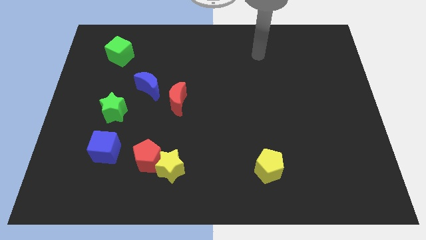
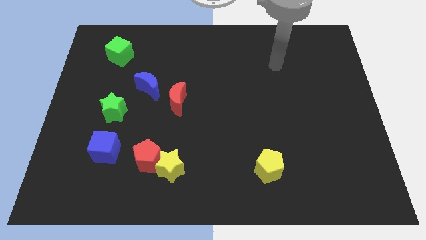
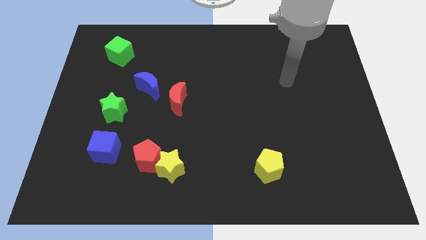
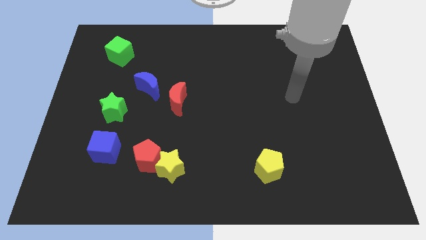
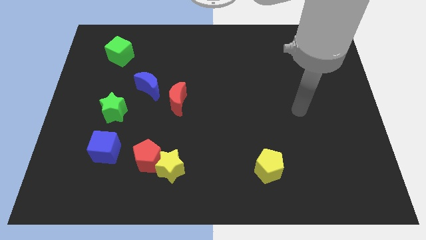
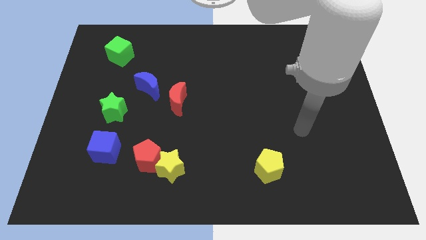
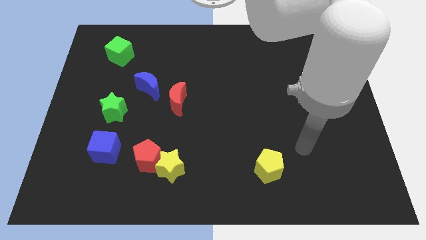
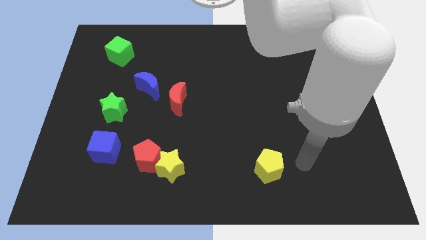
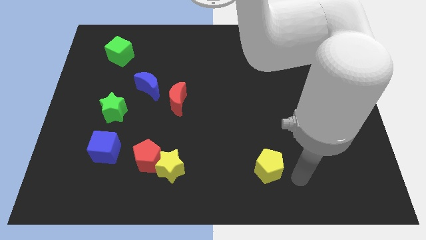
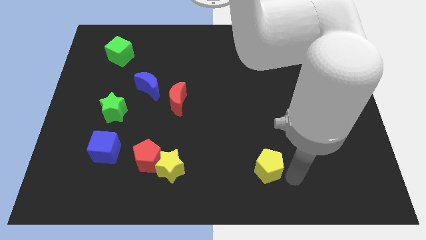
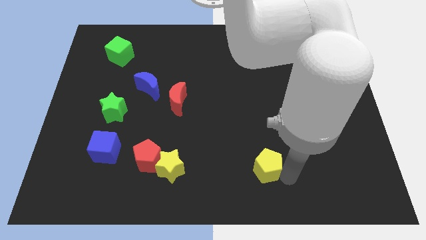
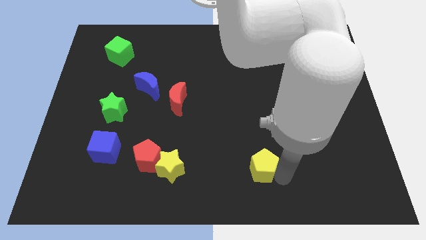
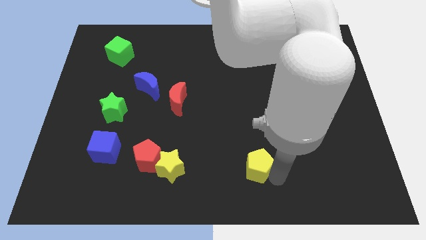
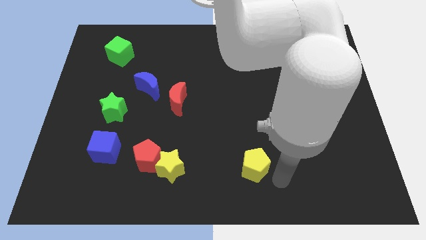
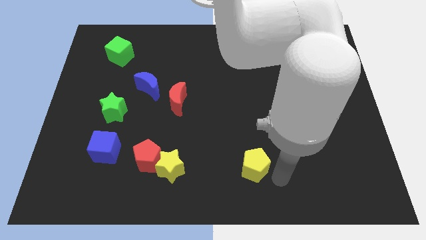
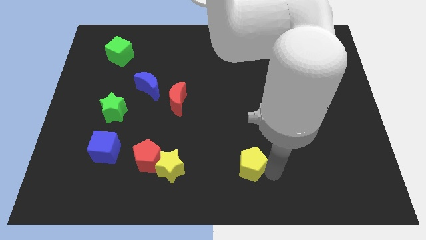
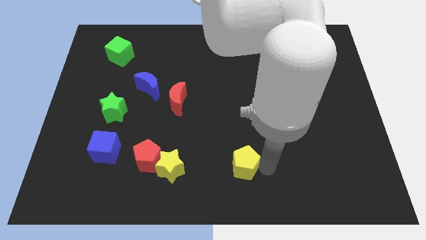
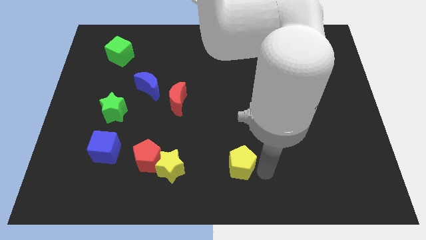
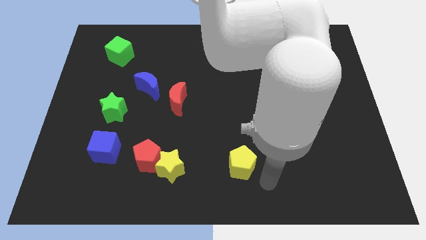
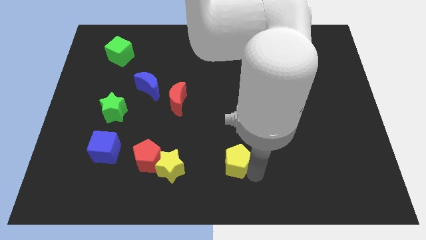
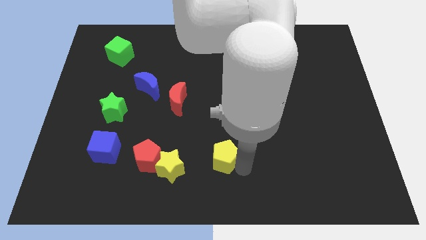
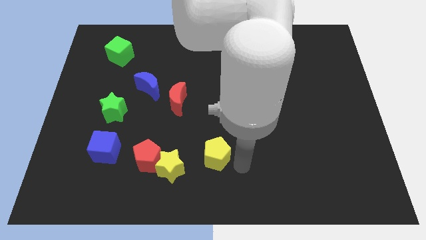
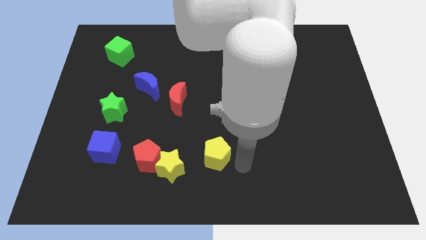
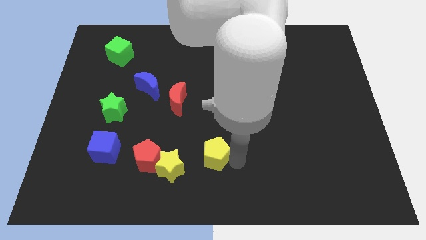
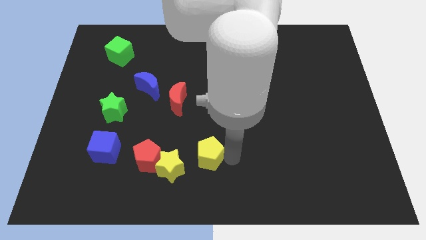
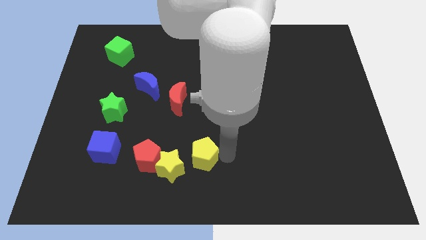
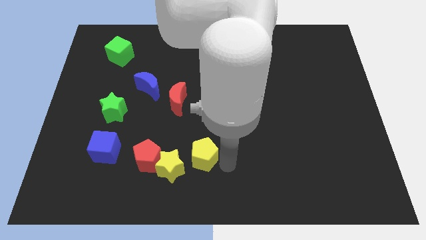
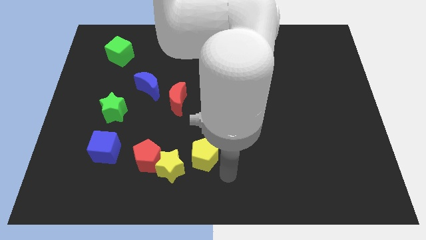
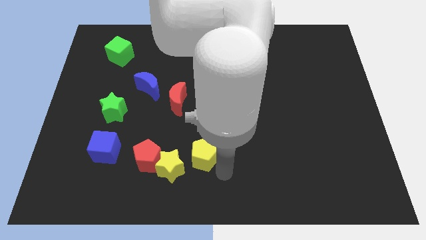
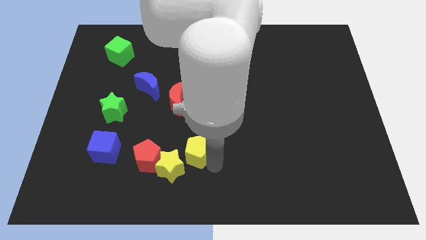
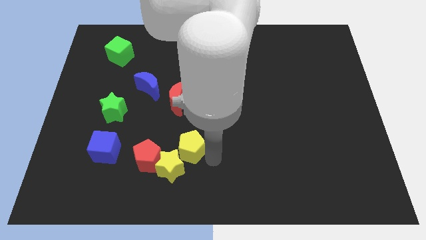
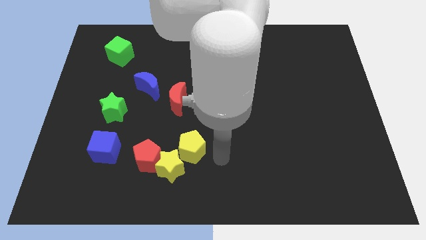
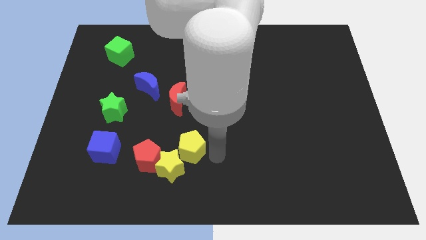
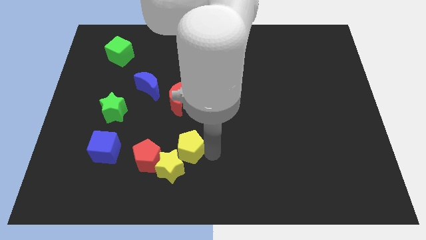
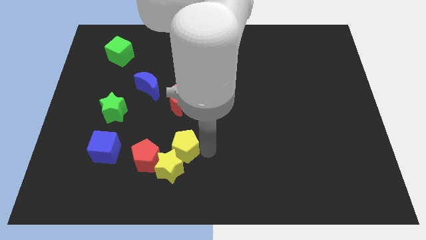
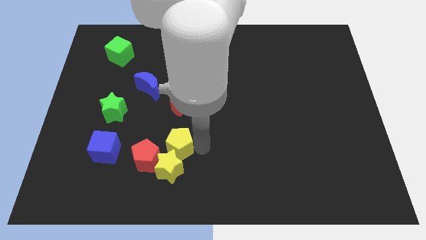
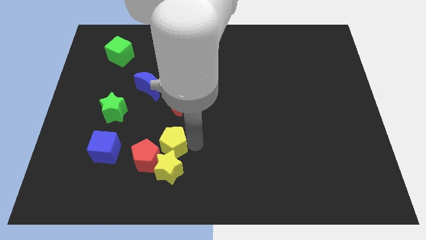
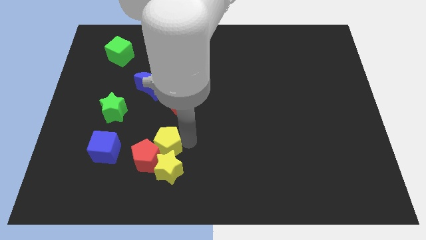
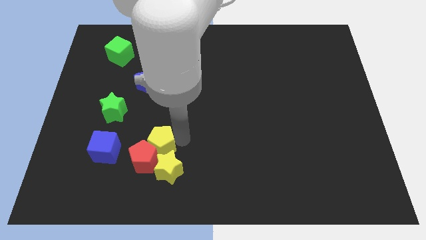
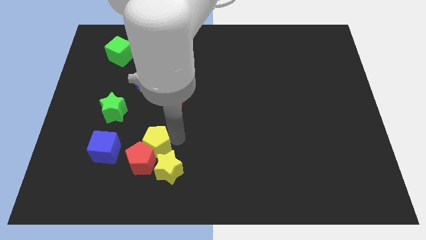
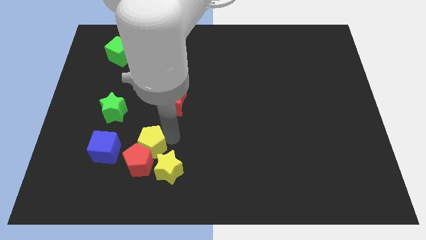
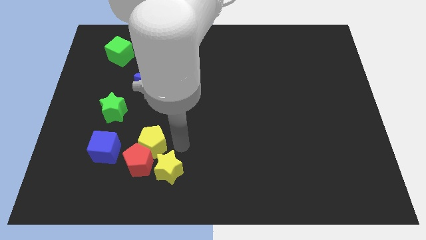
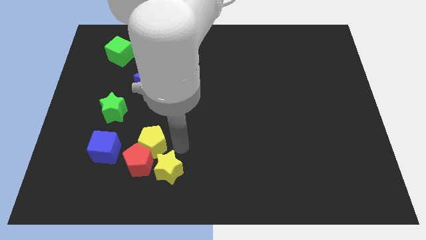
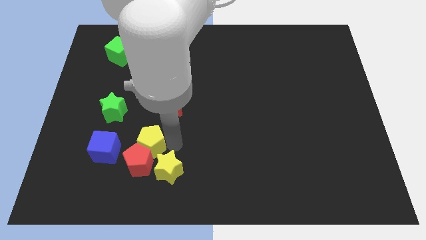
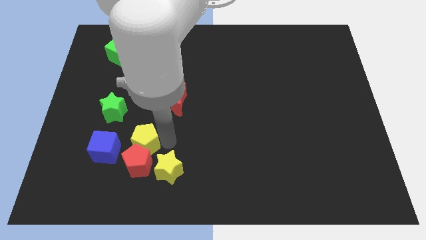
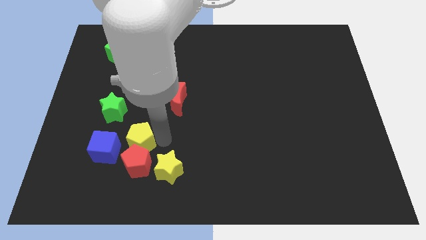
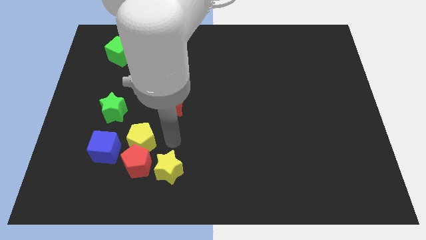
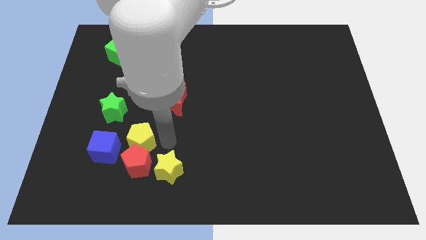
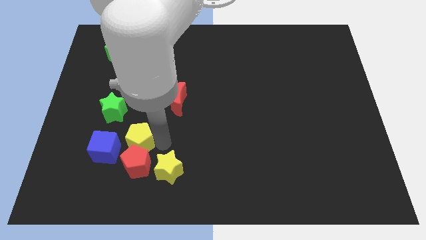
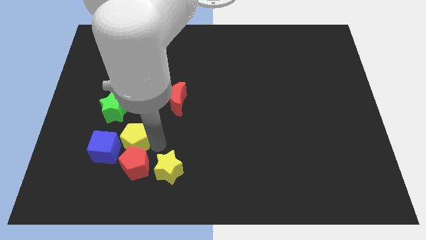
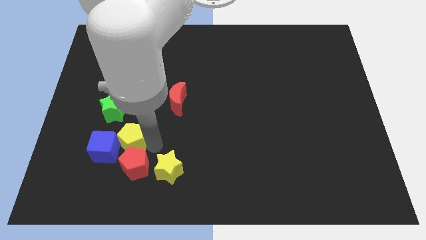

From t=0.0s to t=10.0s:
push the yellow pentagon next to the blue cube

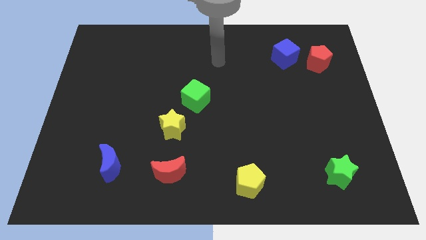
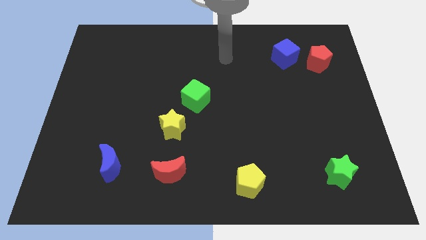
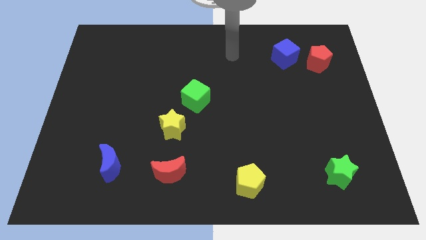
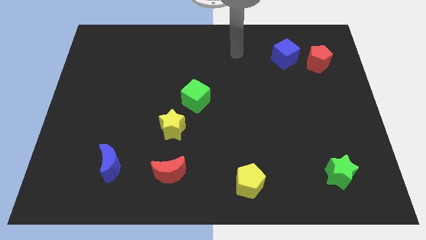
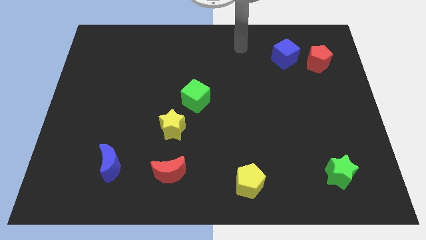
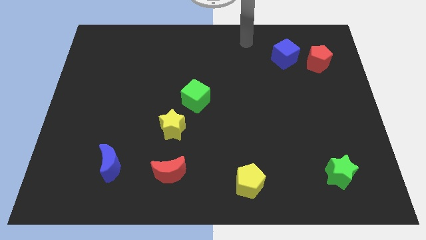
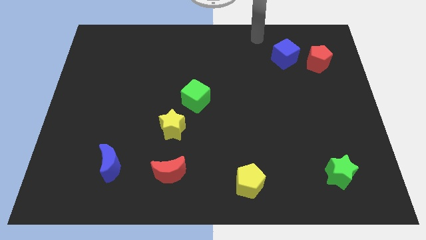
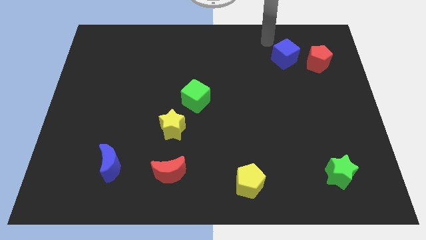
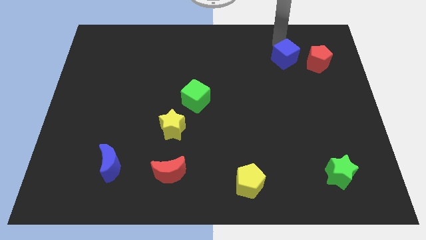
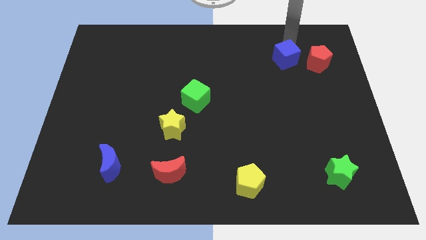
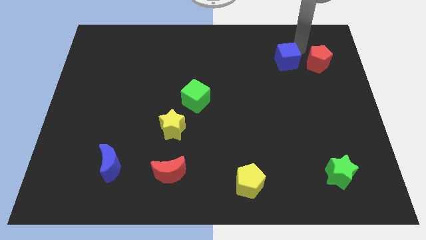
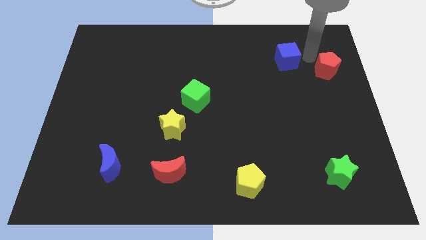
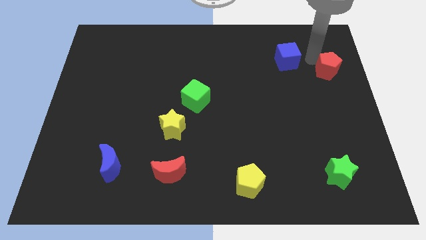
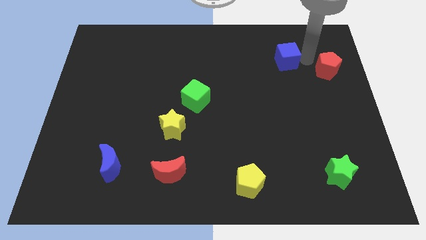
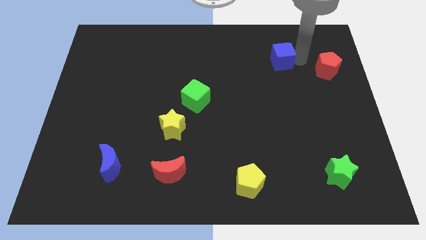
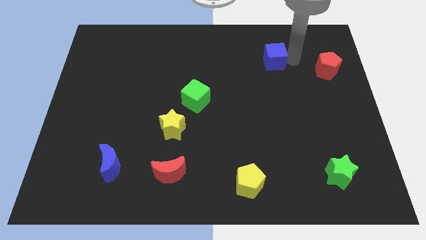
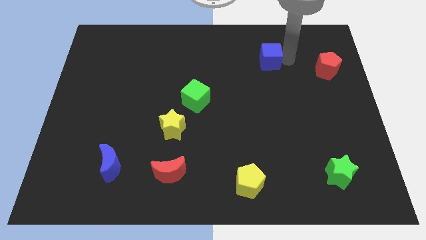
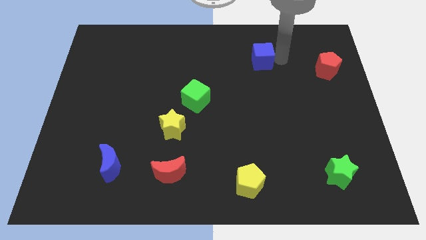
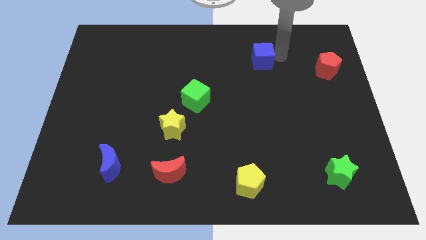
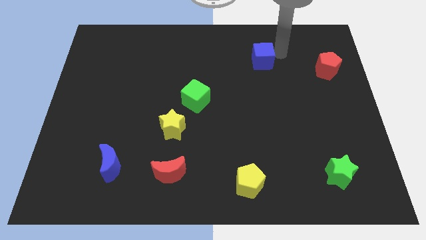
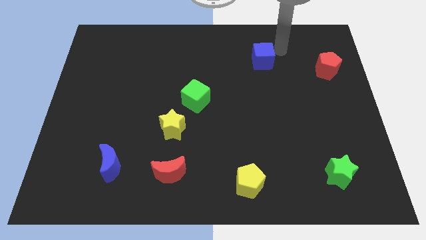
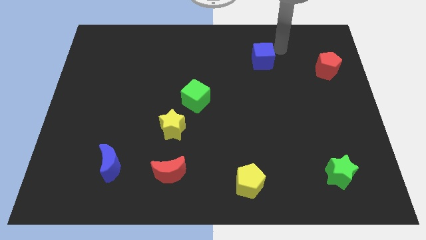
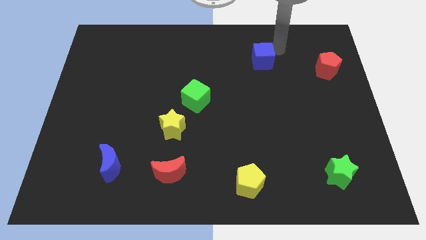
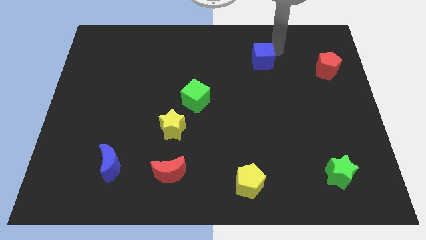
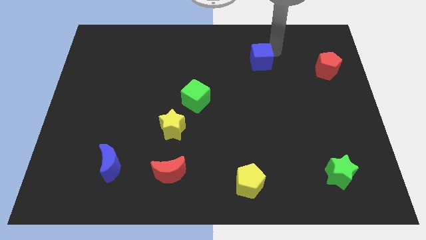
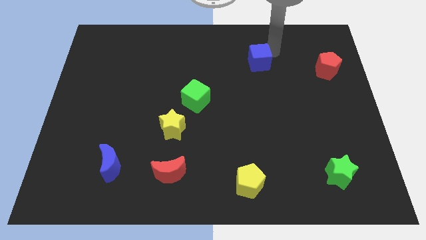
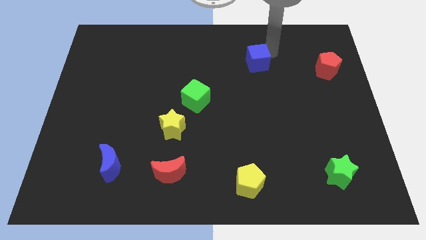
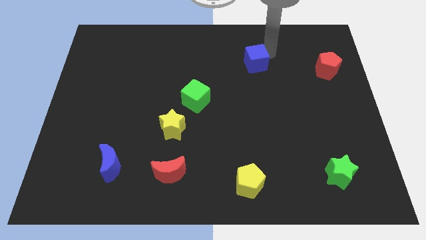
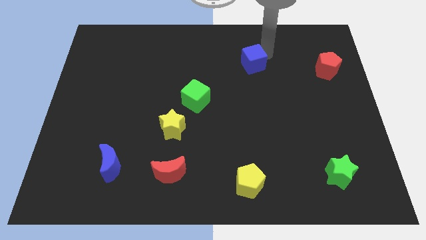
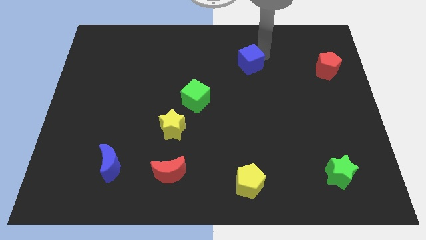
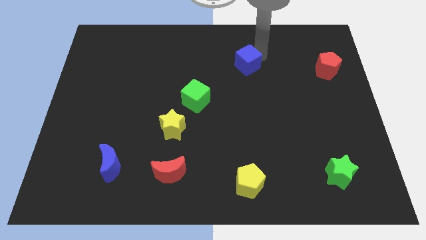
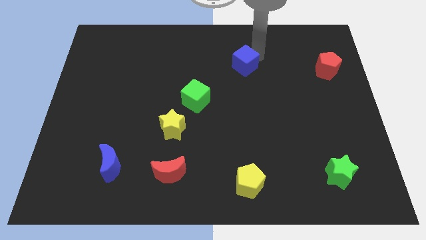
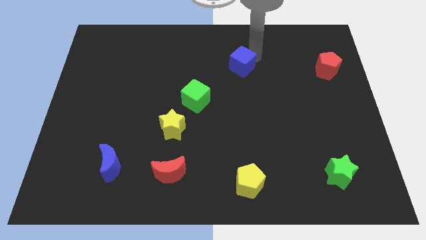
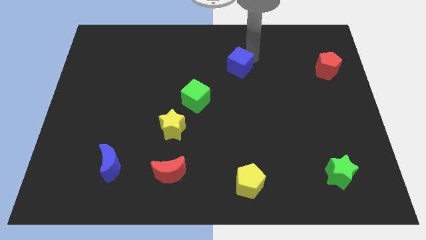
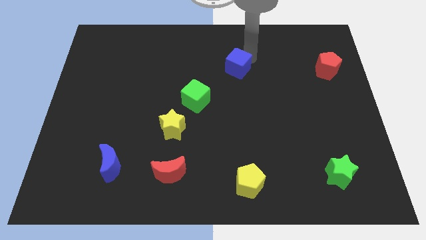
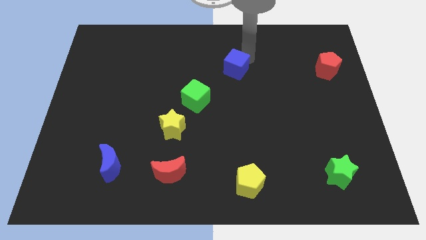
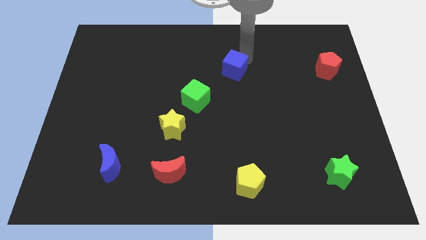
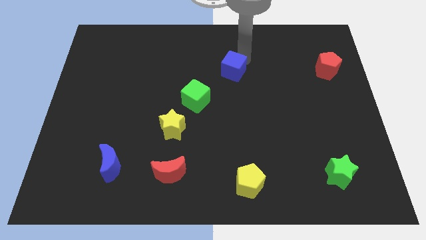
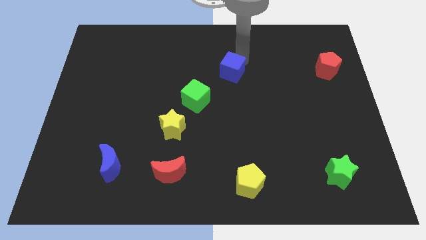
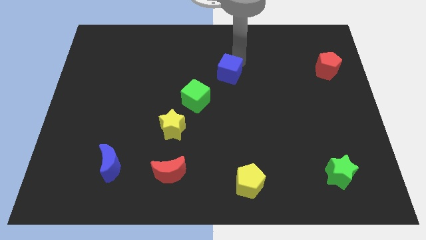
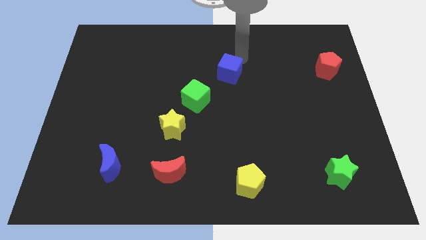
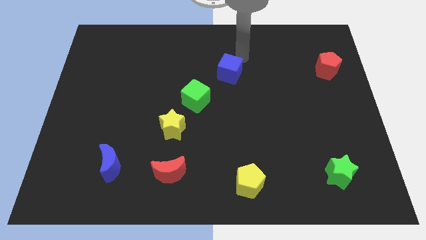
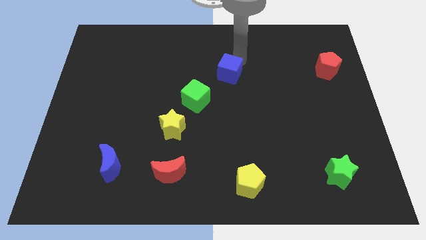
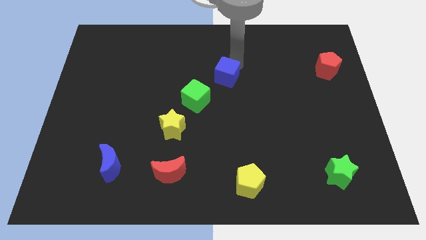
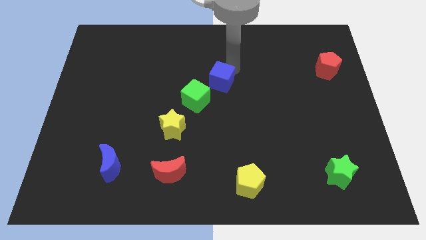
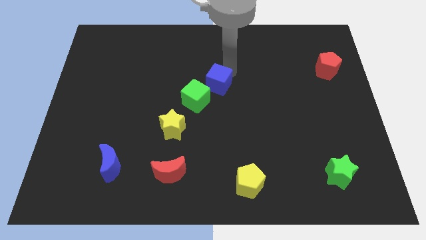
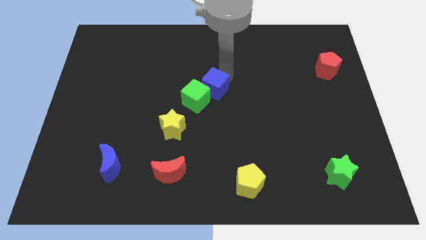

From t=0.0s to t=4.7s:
push the blue cube next to the green cube
